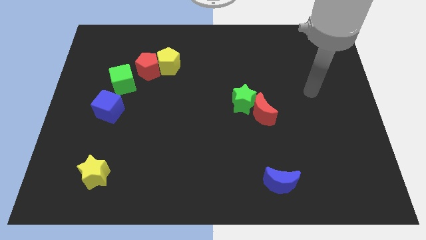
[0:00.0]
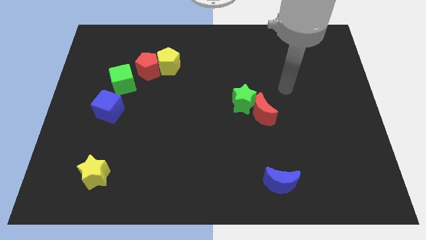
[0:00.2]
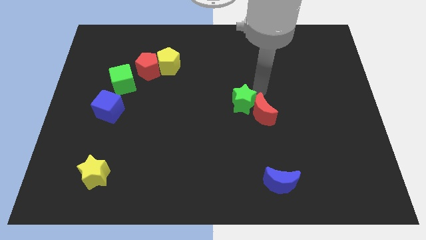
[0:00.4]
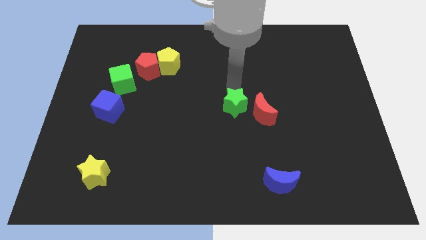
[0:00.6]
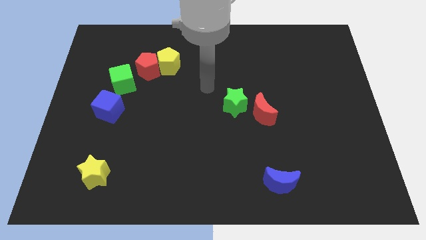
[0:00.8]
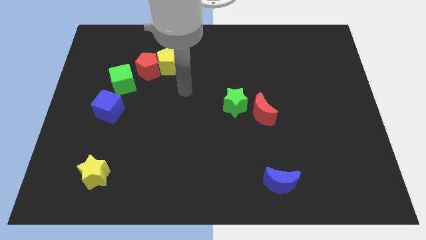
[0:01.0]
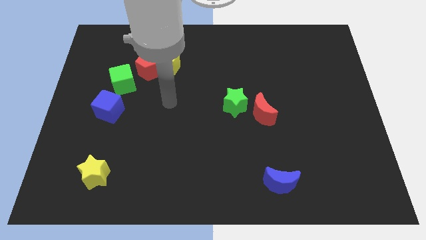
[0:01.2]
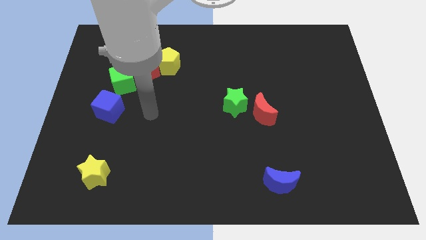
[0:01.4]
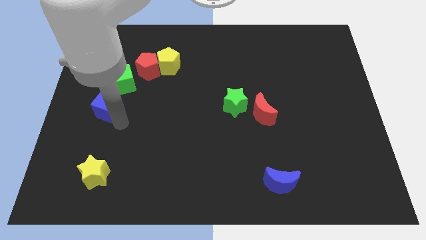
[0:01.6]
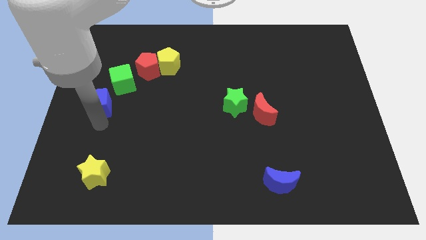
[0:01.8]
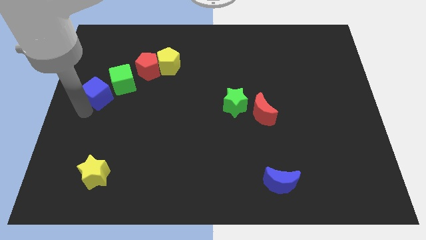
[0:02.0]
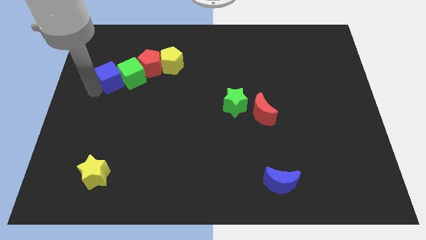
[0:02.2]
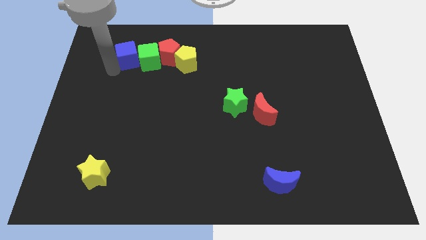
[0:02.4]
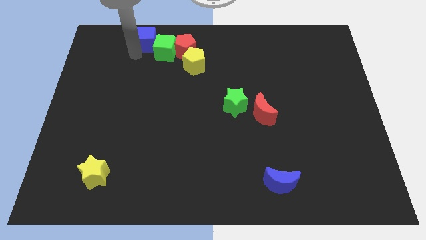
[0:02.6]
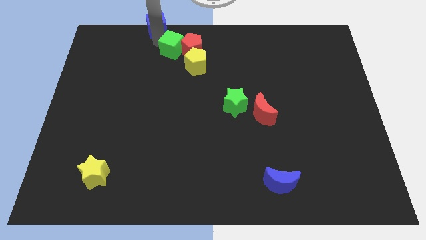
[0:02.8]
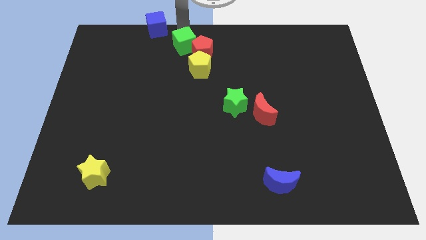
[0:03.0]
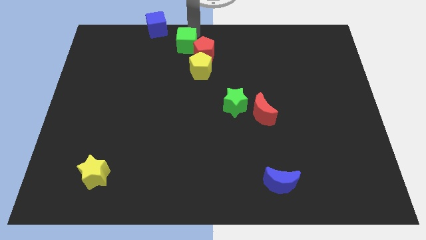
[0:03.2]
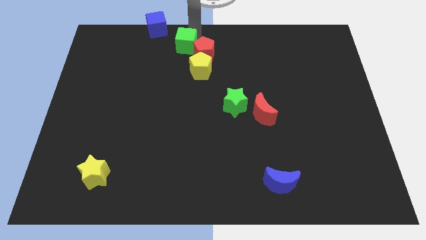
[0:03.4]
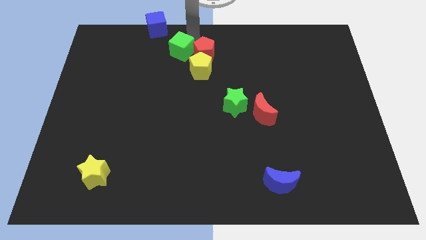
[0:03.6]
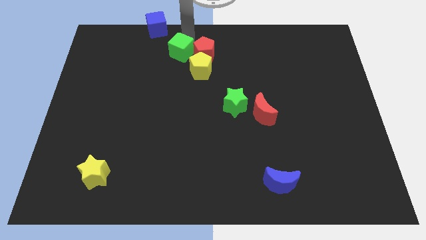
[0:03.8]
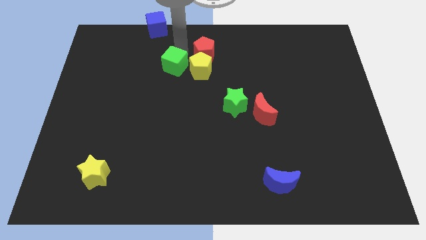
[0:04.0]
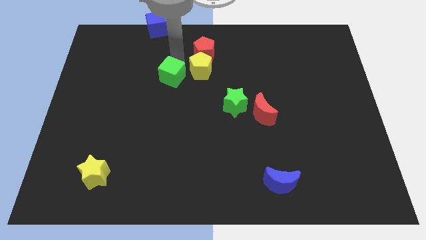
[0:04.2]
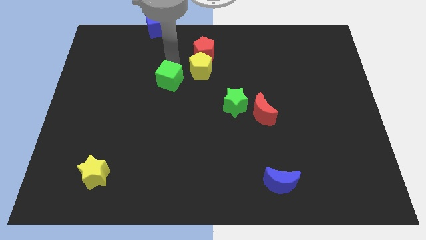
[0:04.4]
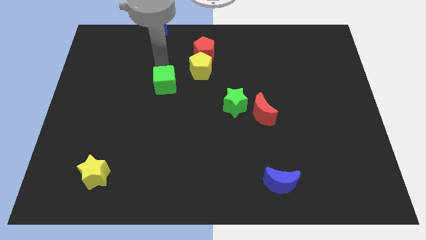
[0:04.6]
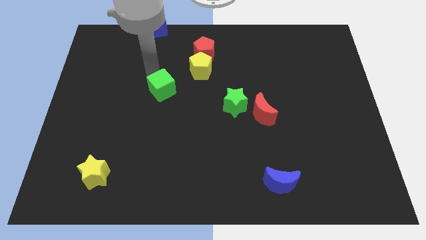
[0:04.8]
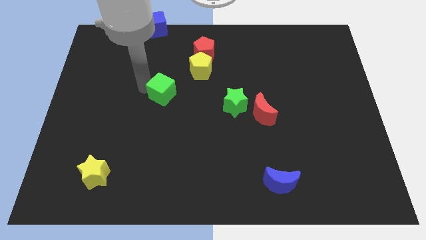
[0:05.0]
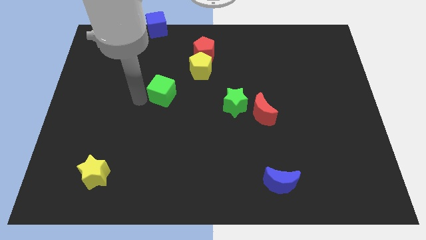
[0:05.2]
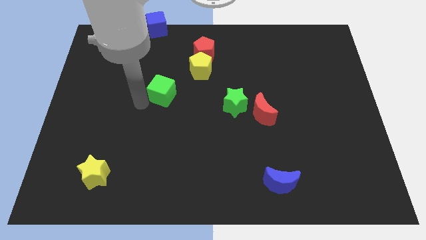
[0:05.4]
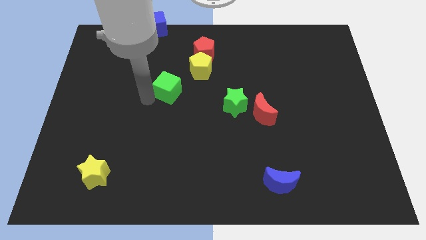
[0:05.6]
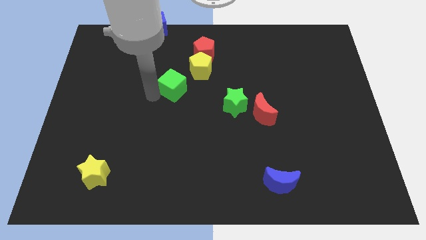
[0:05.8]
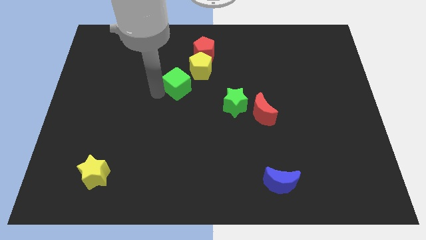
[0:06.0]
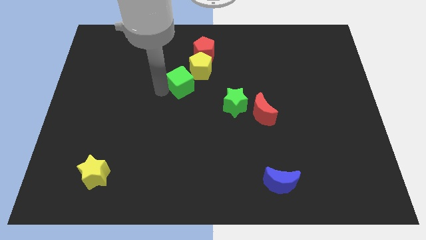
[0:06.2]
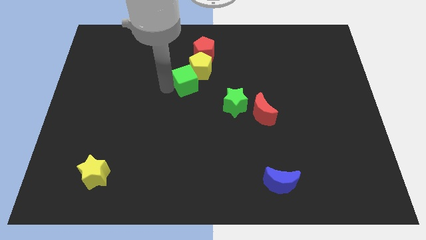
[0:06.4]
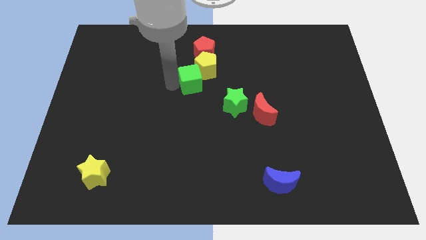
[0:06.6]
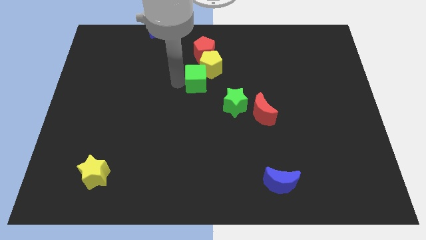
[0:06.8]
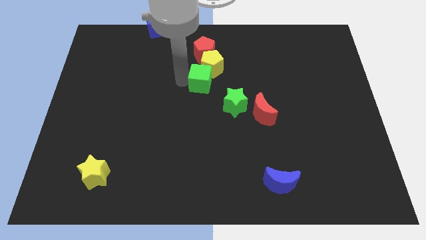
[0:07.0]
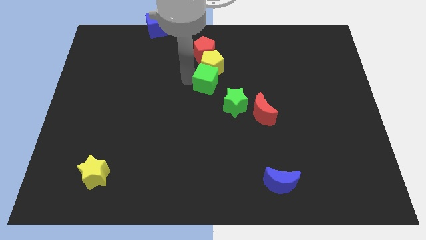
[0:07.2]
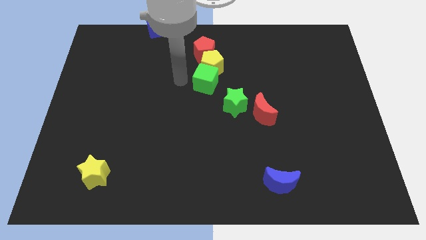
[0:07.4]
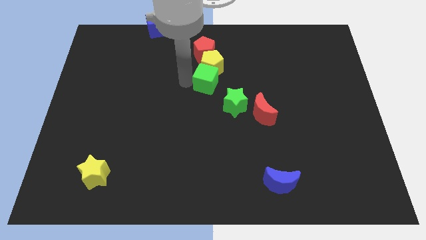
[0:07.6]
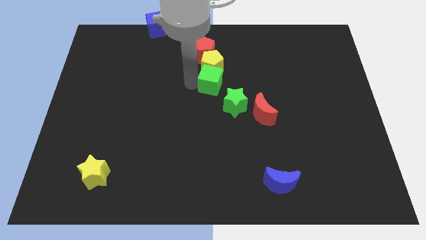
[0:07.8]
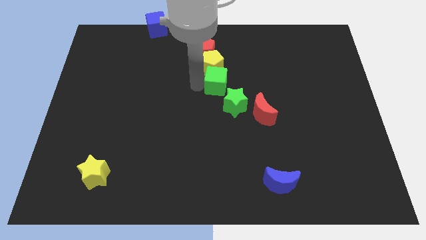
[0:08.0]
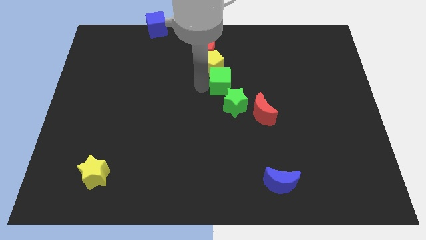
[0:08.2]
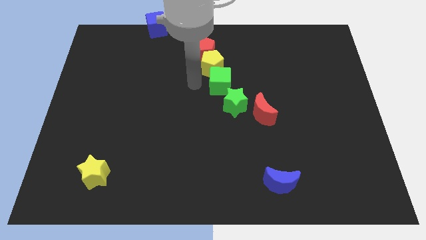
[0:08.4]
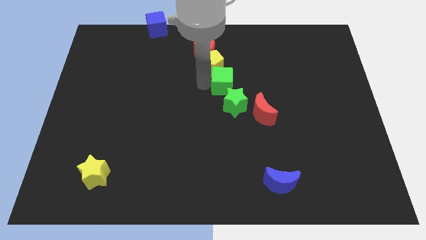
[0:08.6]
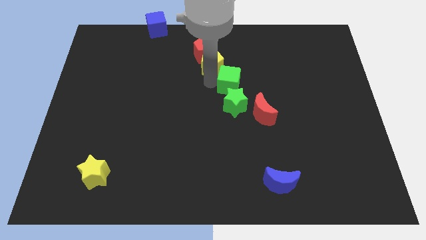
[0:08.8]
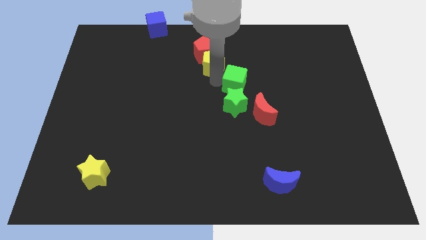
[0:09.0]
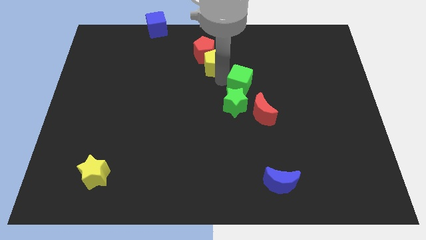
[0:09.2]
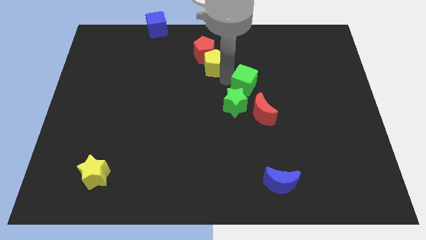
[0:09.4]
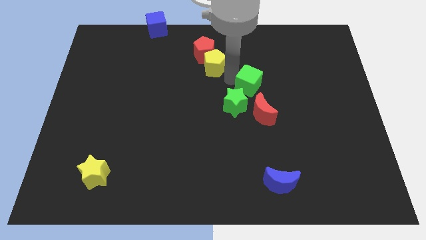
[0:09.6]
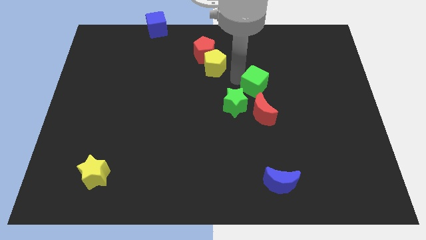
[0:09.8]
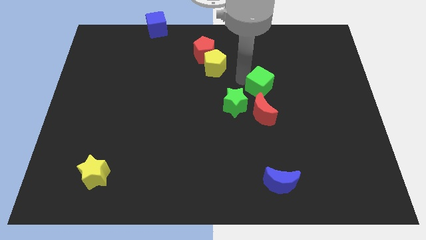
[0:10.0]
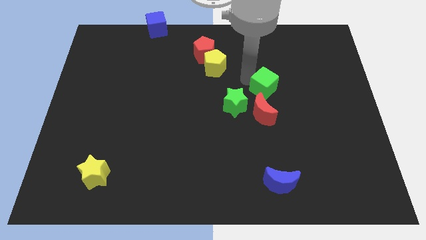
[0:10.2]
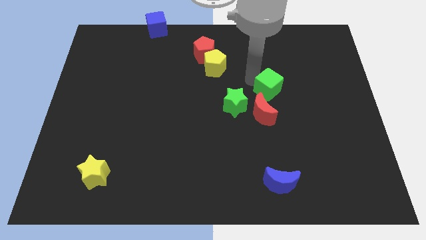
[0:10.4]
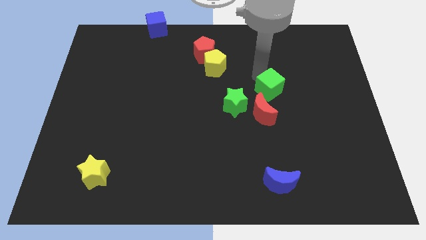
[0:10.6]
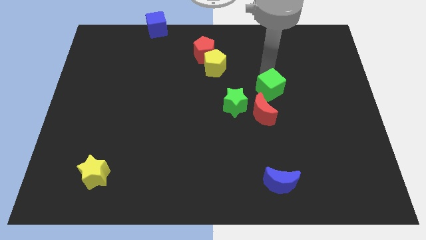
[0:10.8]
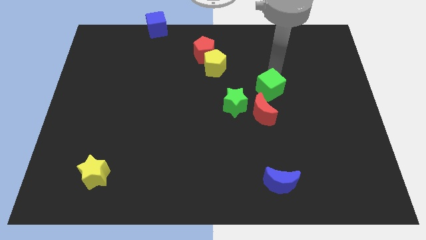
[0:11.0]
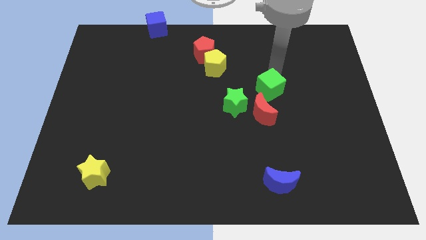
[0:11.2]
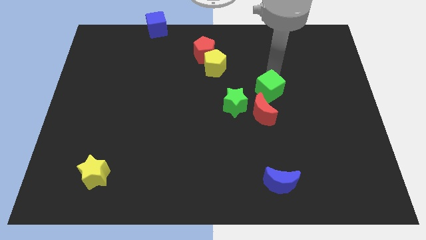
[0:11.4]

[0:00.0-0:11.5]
move the green cube to the right side of the green star

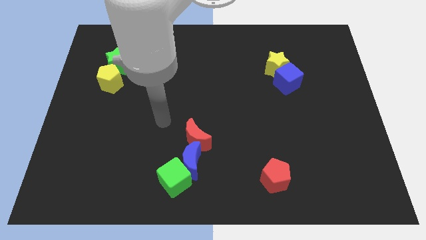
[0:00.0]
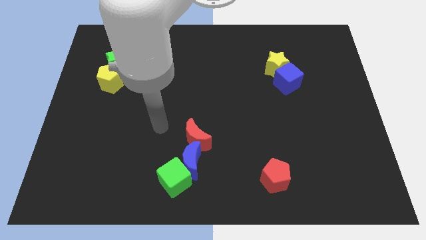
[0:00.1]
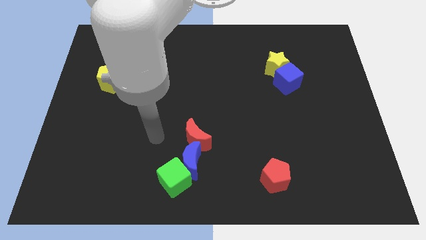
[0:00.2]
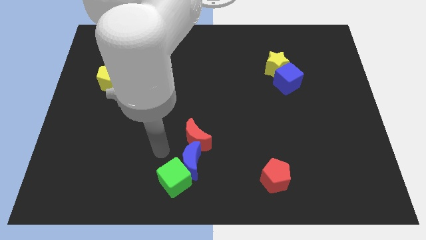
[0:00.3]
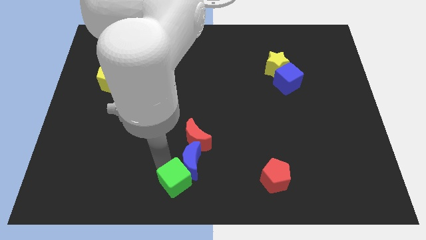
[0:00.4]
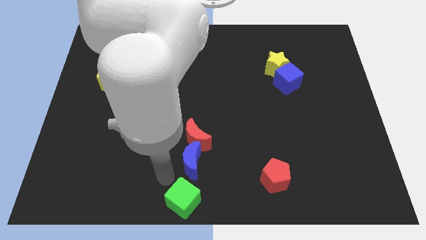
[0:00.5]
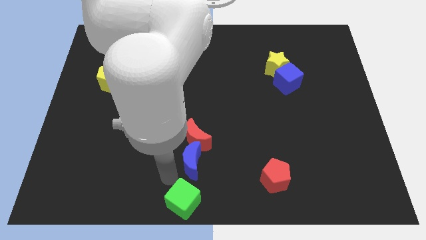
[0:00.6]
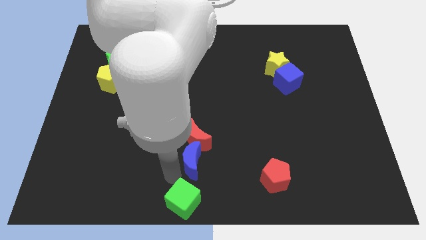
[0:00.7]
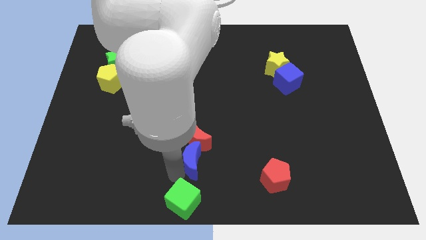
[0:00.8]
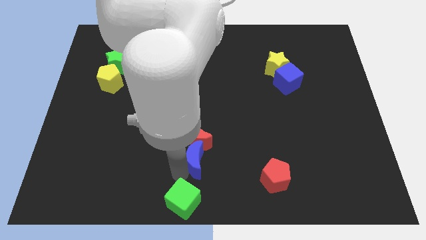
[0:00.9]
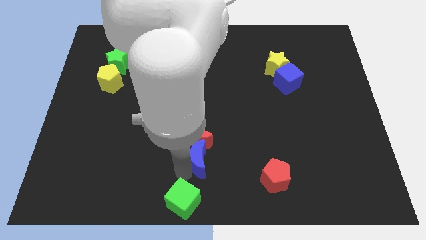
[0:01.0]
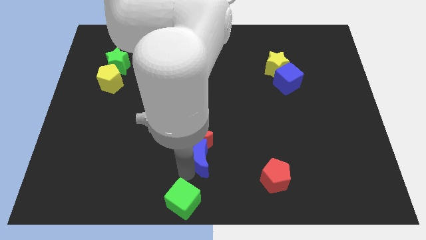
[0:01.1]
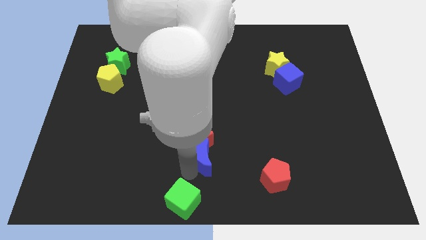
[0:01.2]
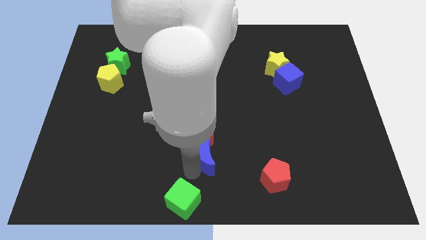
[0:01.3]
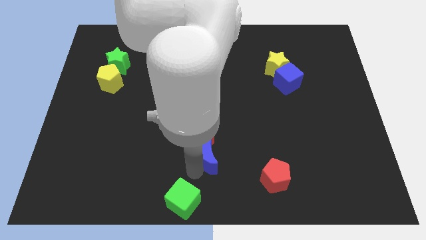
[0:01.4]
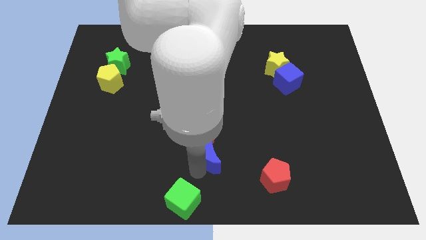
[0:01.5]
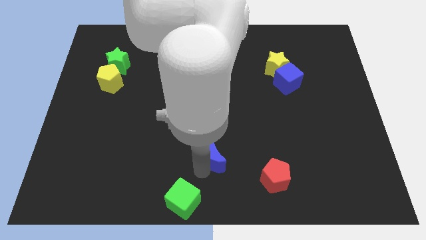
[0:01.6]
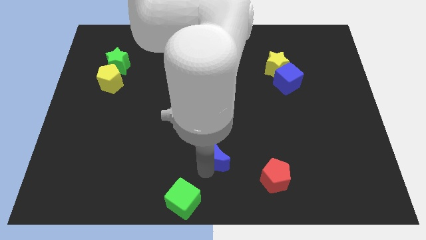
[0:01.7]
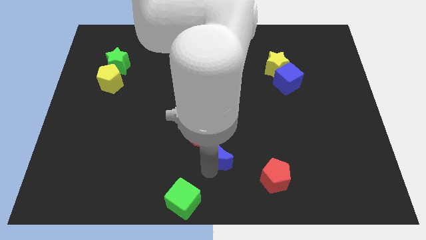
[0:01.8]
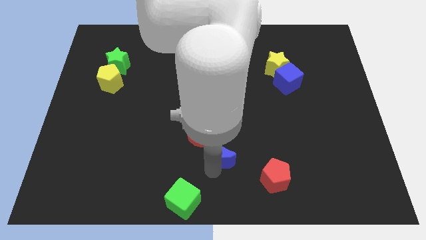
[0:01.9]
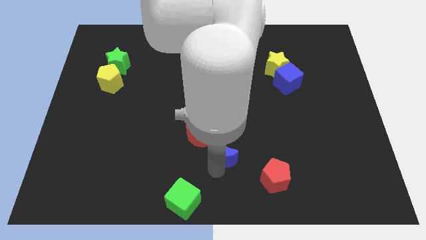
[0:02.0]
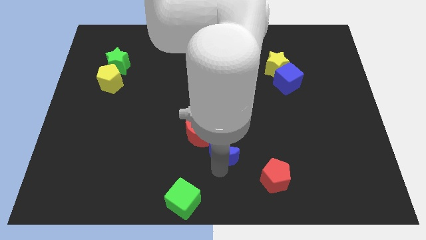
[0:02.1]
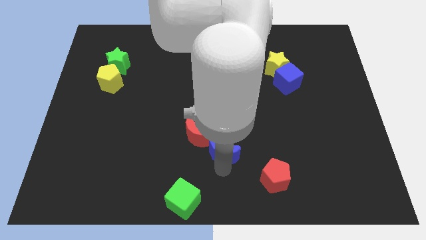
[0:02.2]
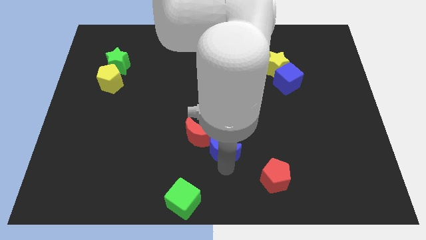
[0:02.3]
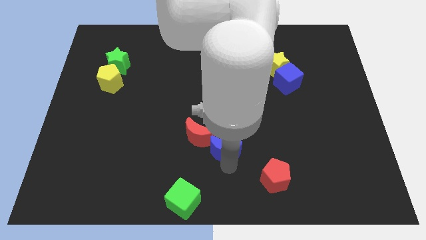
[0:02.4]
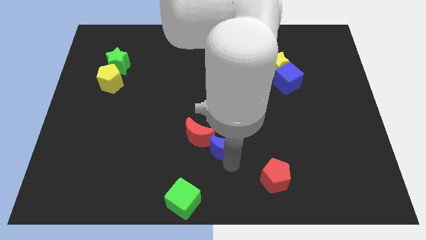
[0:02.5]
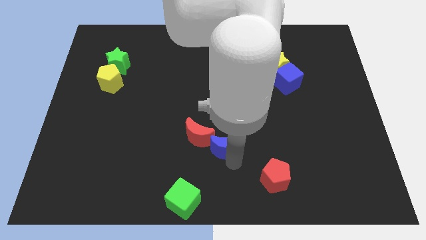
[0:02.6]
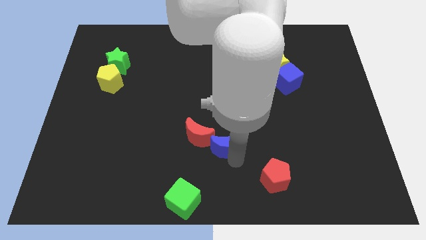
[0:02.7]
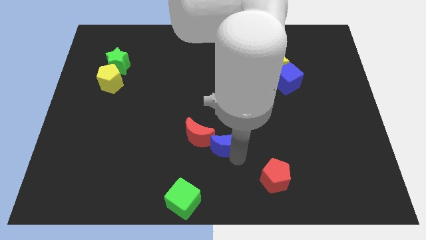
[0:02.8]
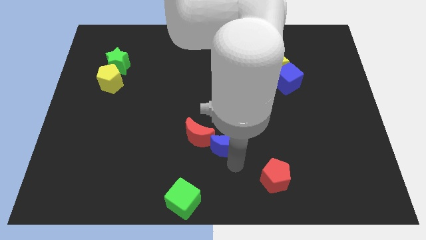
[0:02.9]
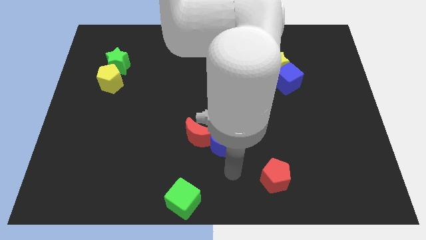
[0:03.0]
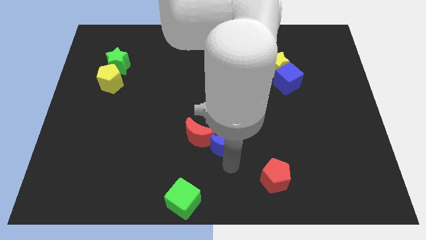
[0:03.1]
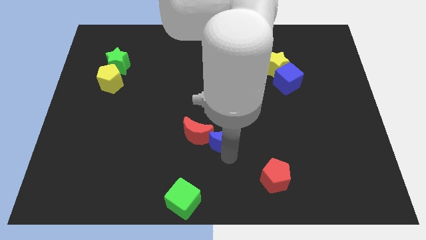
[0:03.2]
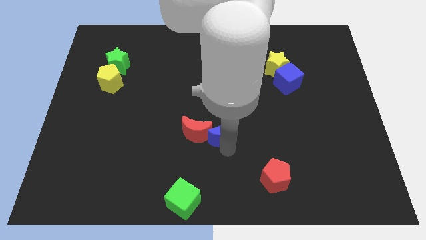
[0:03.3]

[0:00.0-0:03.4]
slide the blue moon diagonally up and to the right of the red moon
